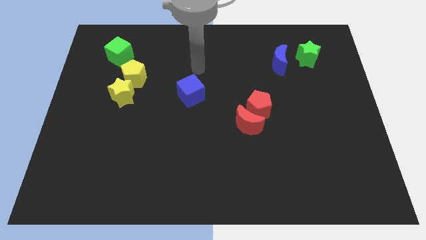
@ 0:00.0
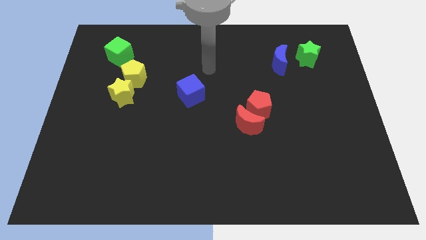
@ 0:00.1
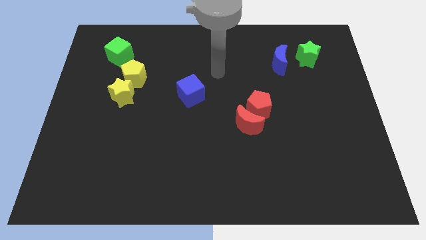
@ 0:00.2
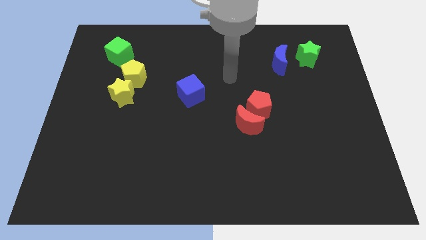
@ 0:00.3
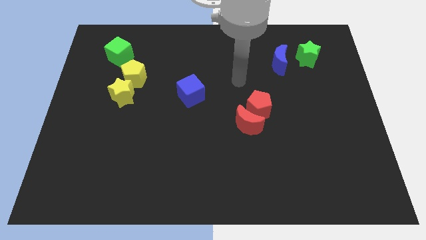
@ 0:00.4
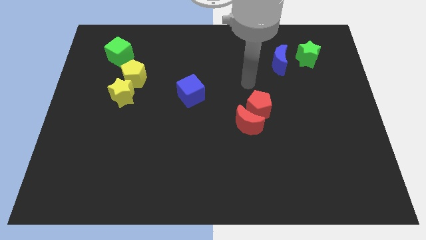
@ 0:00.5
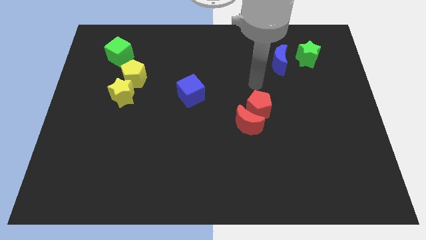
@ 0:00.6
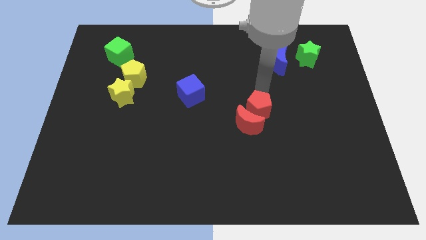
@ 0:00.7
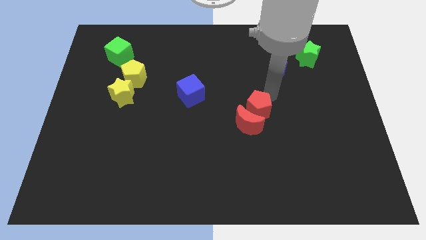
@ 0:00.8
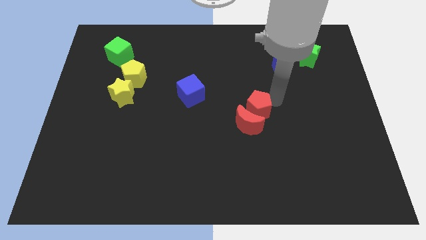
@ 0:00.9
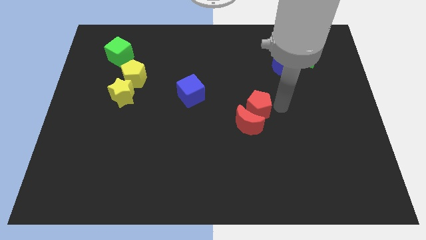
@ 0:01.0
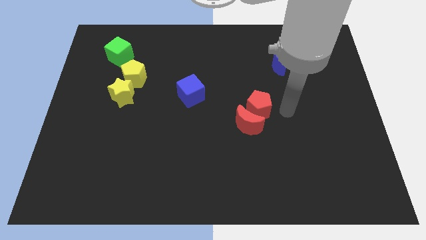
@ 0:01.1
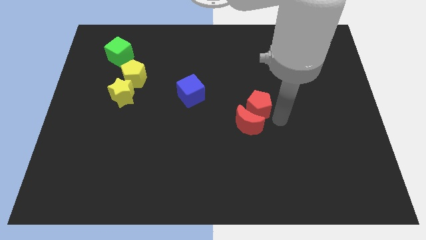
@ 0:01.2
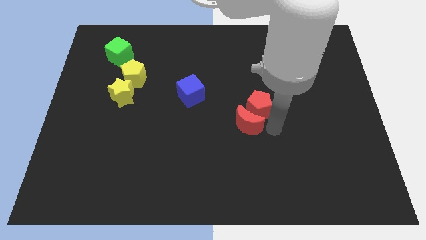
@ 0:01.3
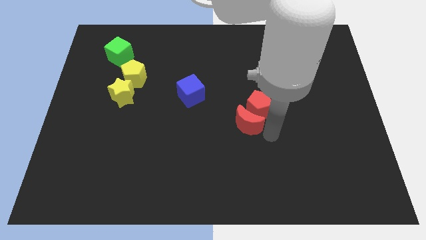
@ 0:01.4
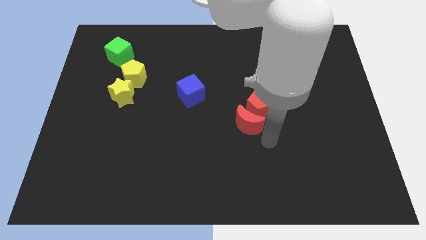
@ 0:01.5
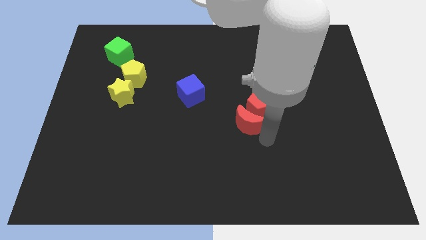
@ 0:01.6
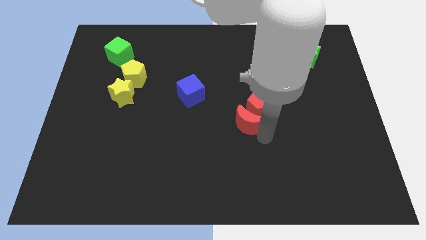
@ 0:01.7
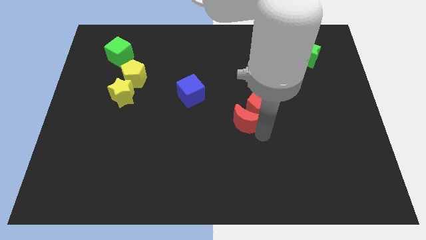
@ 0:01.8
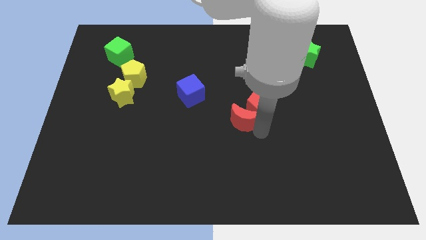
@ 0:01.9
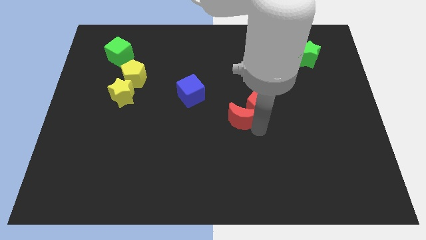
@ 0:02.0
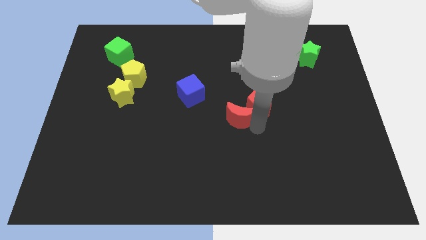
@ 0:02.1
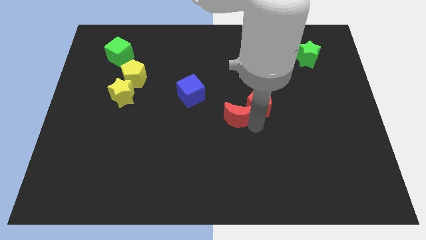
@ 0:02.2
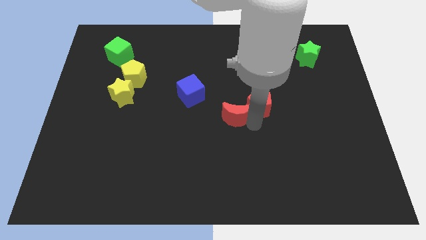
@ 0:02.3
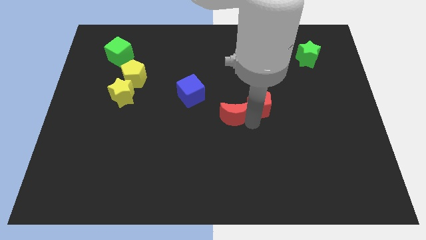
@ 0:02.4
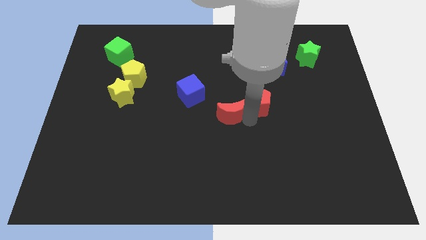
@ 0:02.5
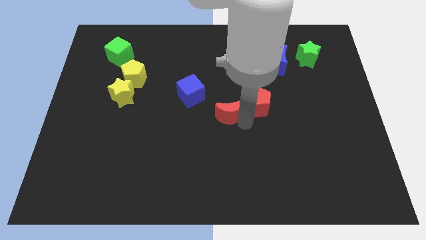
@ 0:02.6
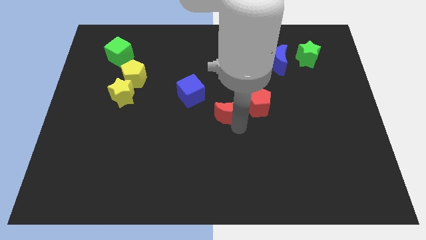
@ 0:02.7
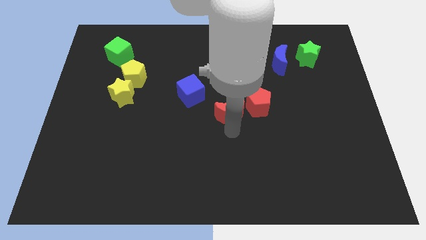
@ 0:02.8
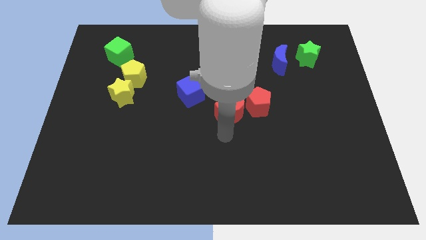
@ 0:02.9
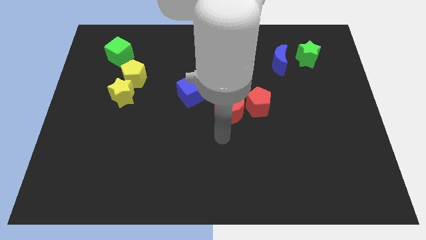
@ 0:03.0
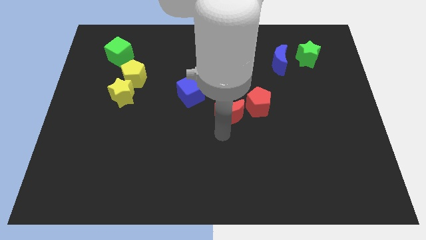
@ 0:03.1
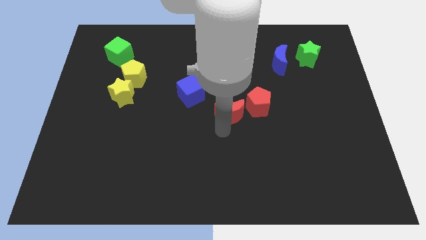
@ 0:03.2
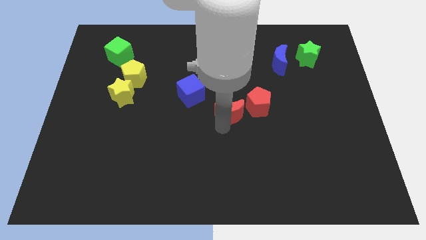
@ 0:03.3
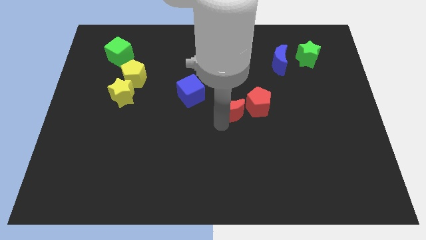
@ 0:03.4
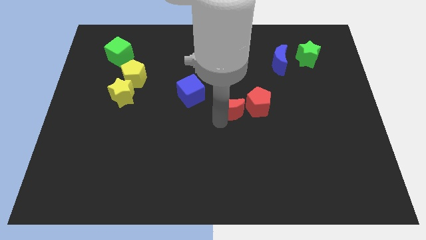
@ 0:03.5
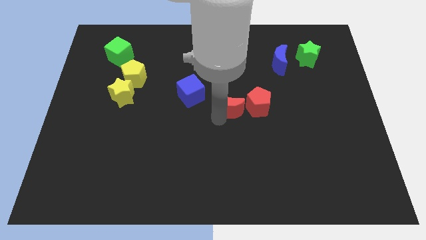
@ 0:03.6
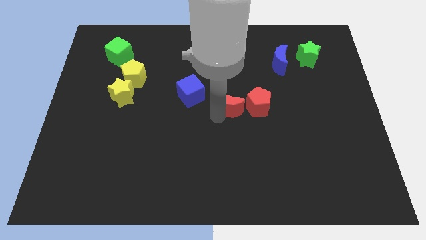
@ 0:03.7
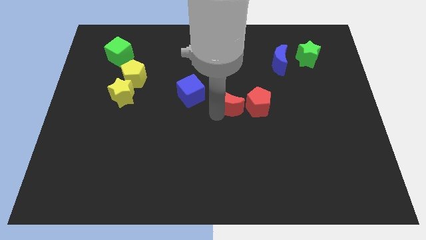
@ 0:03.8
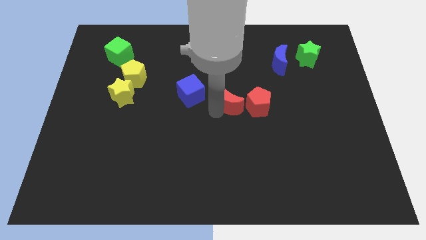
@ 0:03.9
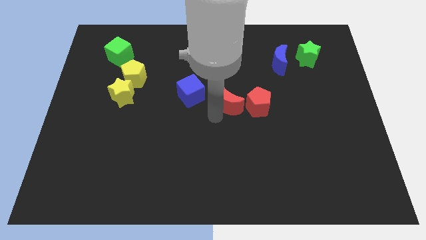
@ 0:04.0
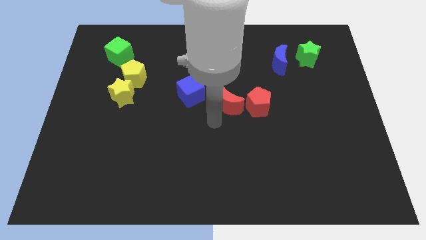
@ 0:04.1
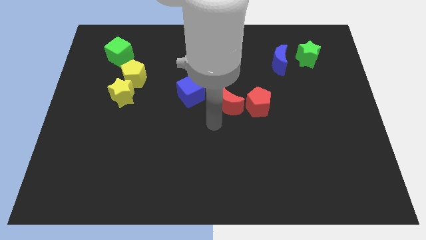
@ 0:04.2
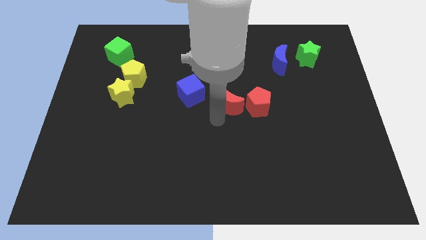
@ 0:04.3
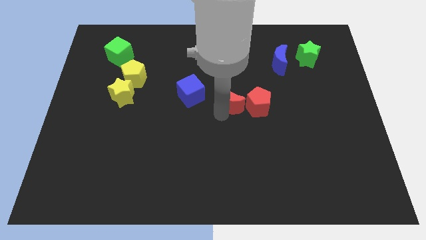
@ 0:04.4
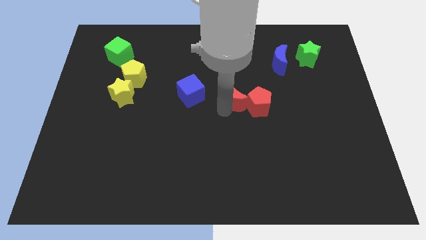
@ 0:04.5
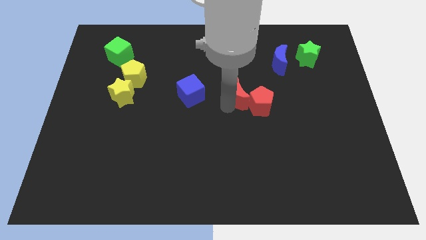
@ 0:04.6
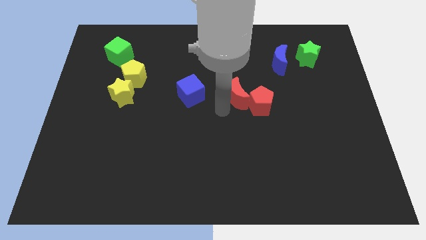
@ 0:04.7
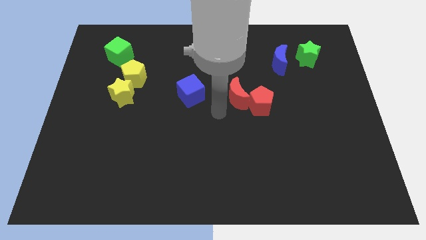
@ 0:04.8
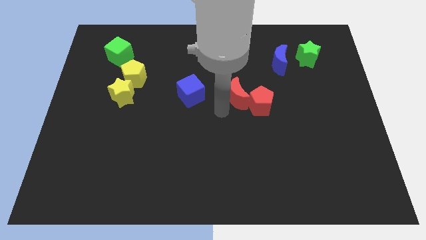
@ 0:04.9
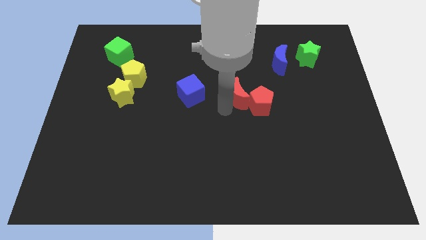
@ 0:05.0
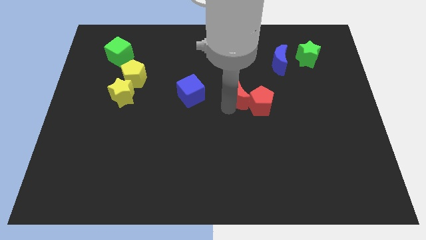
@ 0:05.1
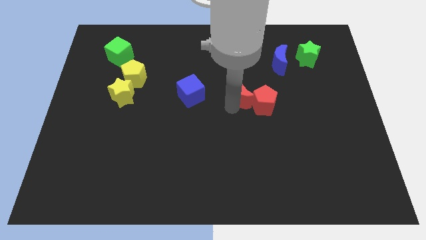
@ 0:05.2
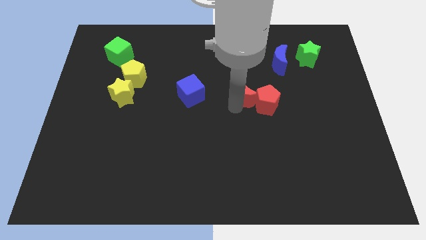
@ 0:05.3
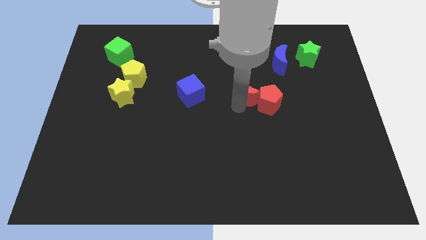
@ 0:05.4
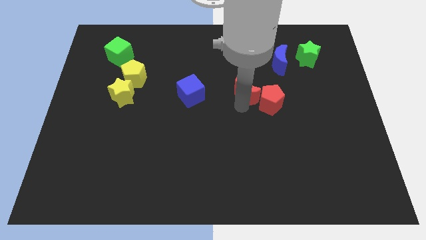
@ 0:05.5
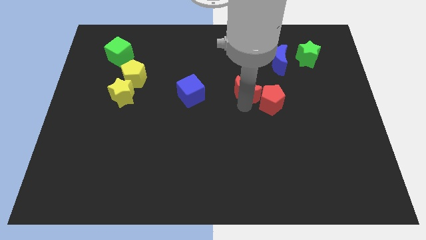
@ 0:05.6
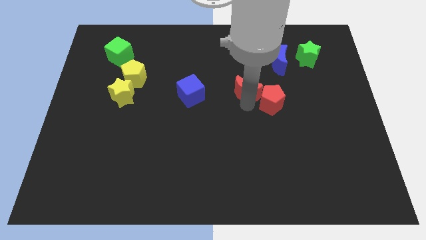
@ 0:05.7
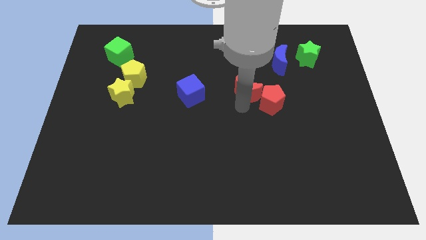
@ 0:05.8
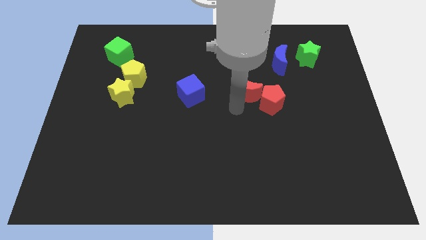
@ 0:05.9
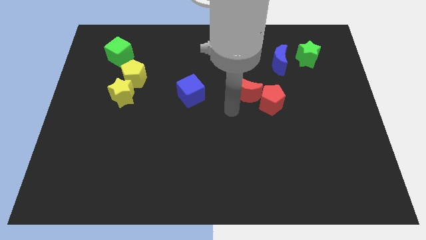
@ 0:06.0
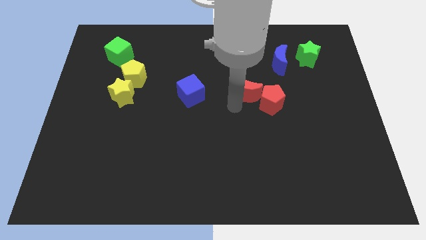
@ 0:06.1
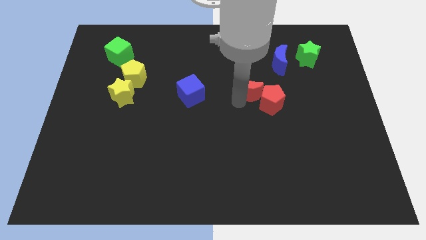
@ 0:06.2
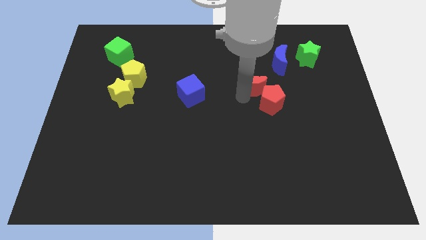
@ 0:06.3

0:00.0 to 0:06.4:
put the red moon diagonally down and to the left of the blue moon

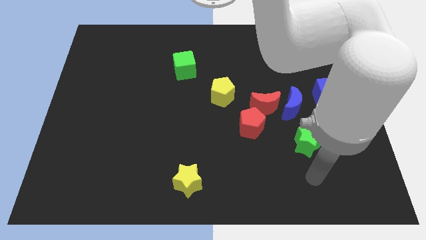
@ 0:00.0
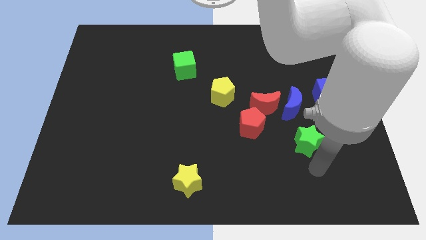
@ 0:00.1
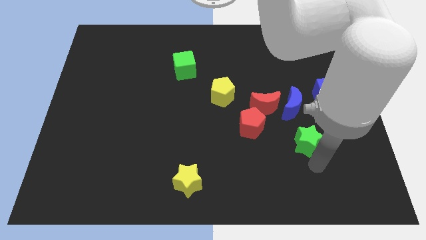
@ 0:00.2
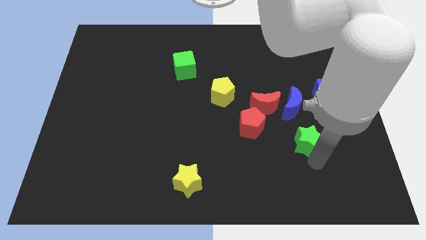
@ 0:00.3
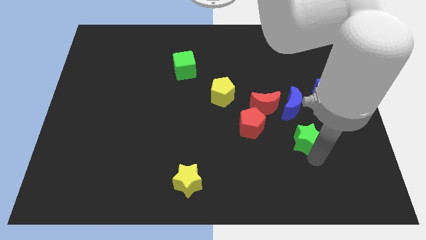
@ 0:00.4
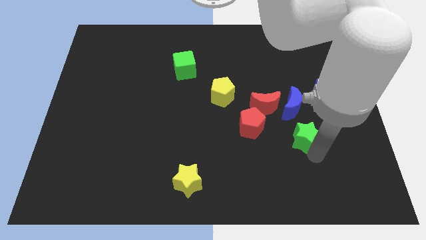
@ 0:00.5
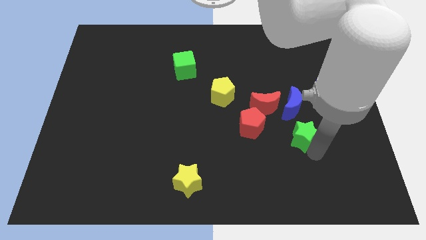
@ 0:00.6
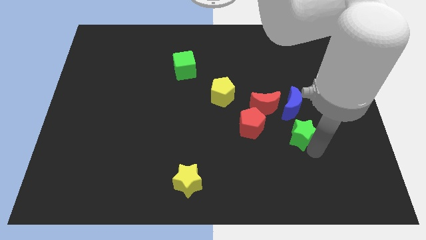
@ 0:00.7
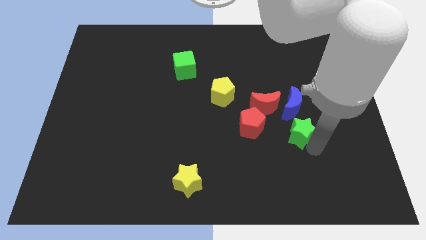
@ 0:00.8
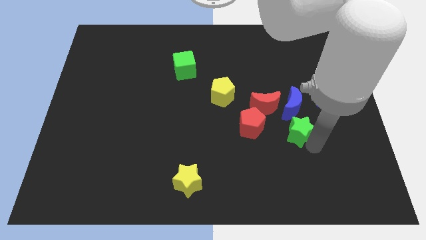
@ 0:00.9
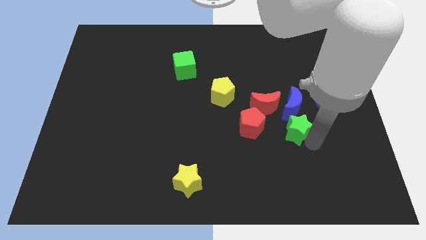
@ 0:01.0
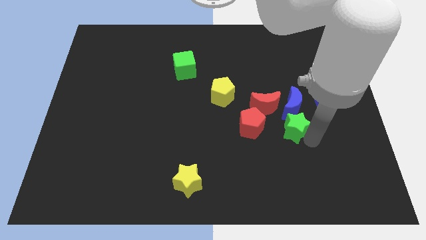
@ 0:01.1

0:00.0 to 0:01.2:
push the green star diagonally down and to the left of the blue cube
